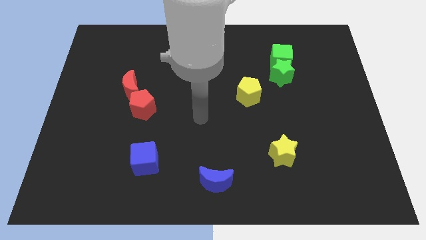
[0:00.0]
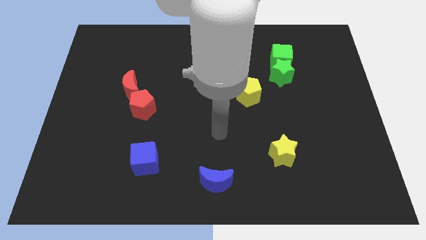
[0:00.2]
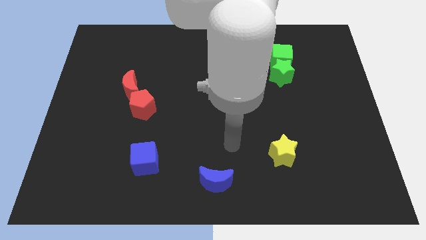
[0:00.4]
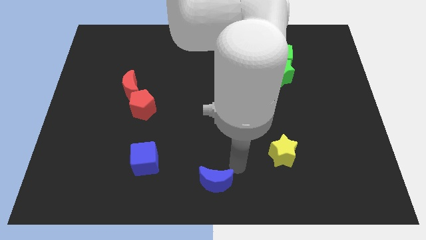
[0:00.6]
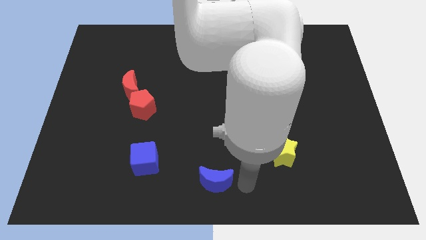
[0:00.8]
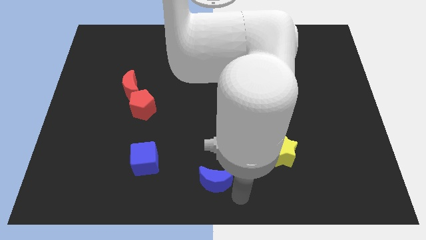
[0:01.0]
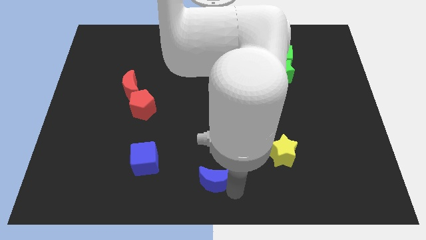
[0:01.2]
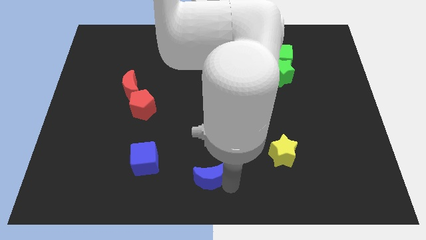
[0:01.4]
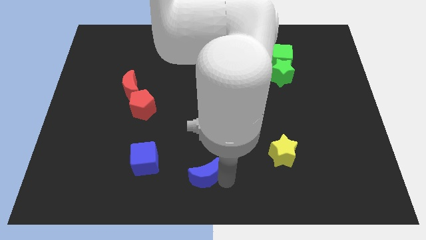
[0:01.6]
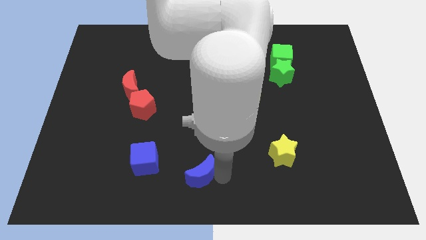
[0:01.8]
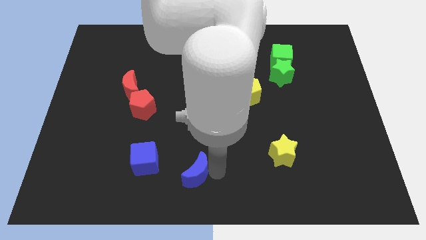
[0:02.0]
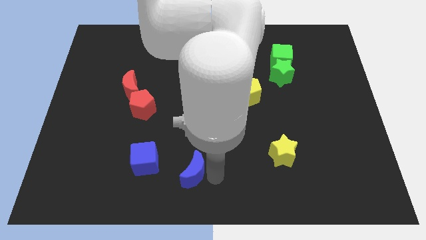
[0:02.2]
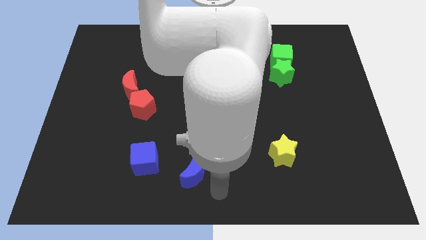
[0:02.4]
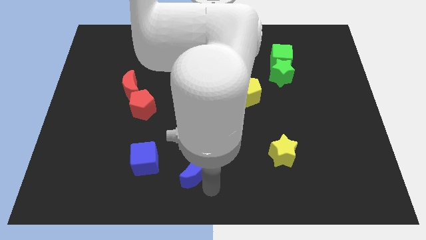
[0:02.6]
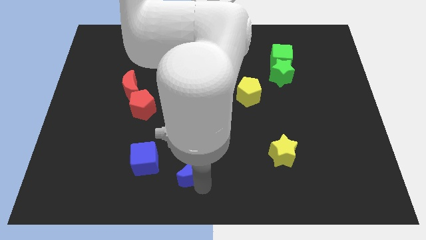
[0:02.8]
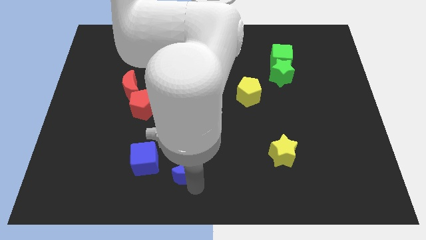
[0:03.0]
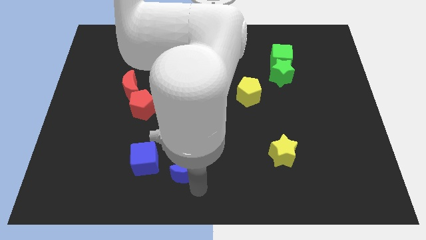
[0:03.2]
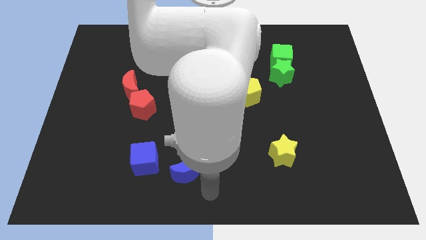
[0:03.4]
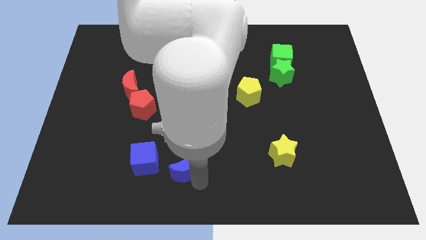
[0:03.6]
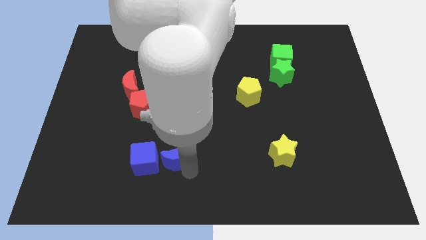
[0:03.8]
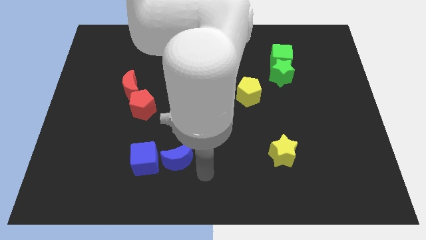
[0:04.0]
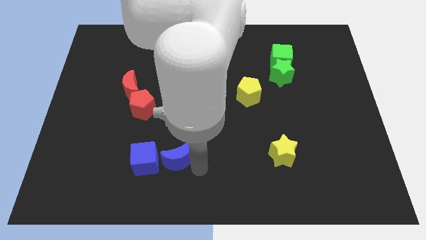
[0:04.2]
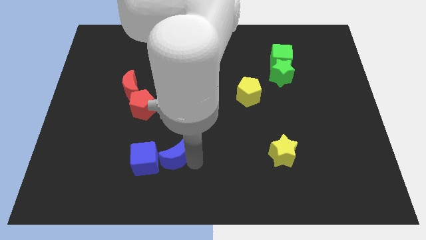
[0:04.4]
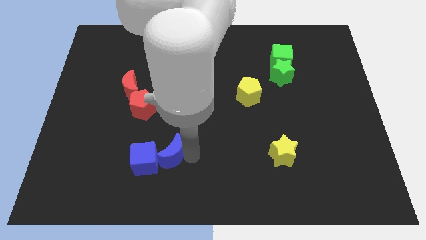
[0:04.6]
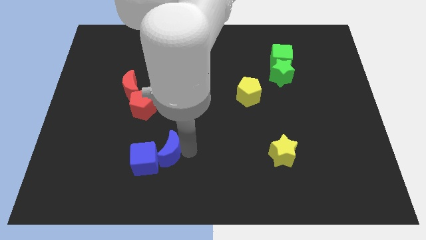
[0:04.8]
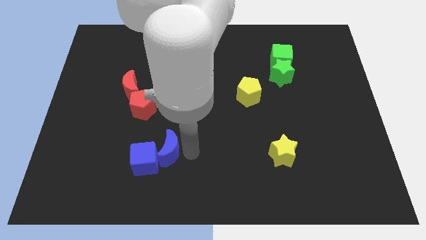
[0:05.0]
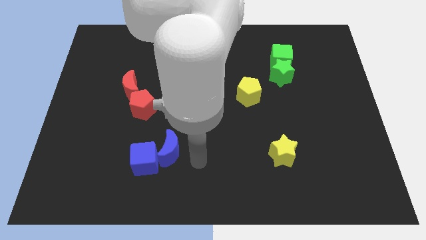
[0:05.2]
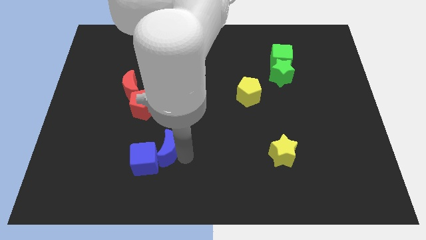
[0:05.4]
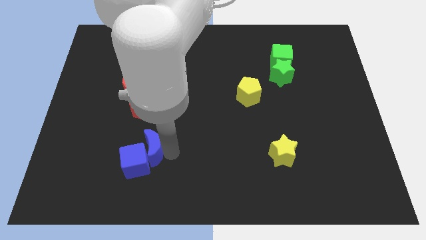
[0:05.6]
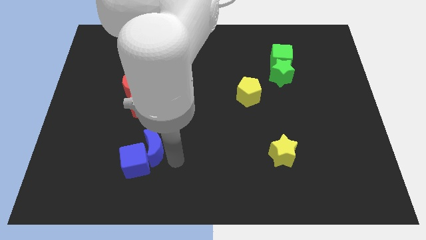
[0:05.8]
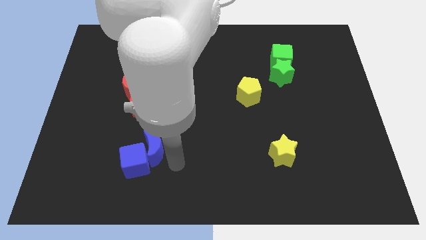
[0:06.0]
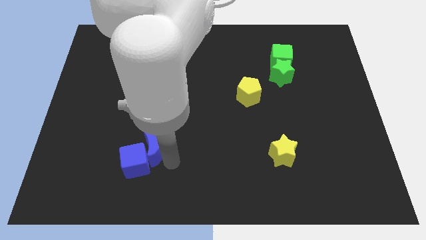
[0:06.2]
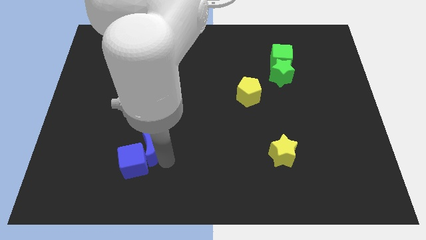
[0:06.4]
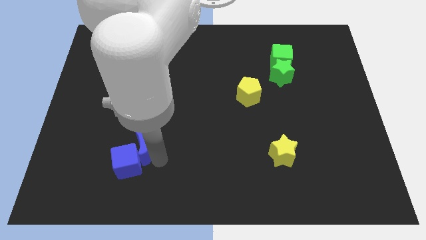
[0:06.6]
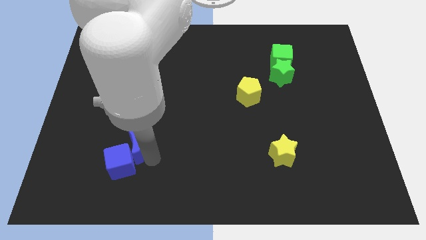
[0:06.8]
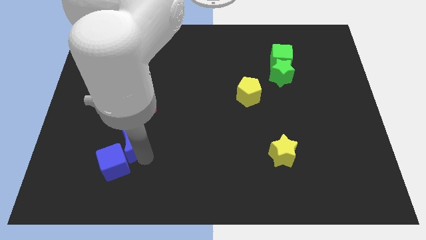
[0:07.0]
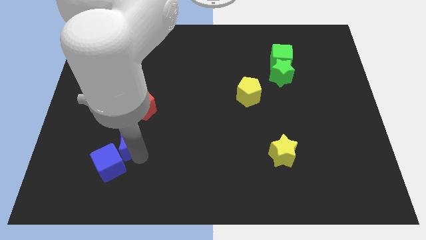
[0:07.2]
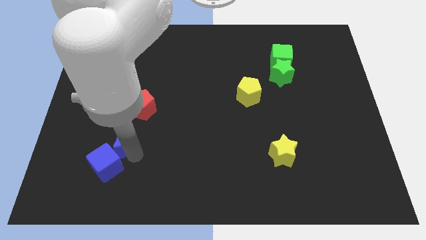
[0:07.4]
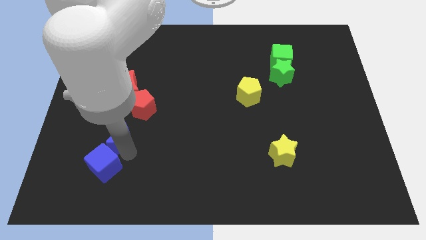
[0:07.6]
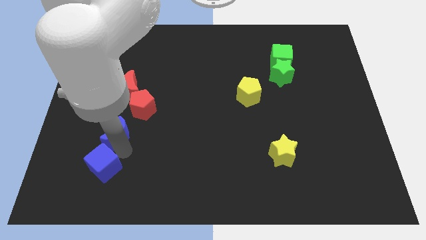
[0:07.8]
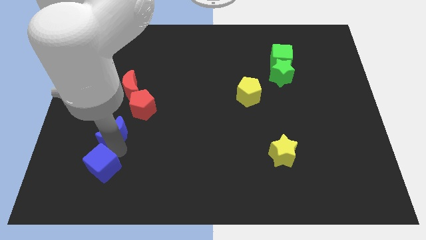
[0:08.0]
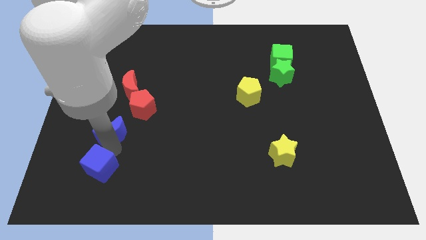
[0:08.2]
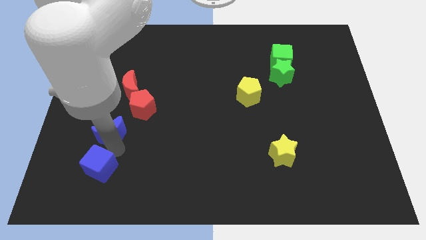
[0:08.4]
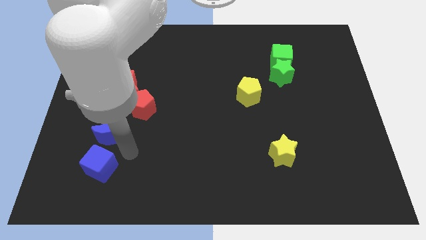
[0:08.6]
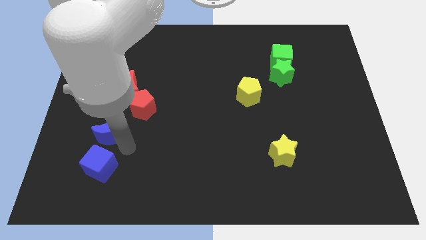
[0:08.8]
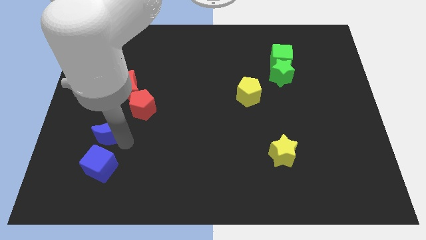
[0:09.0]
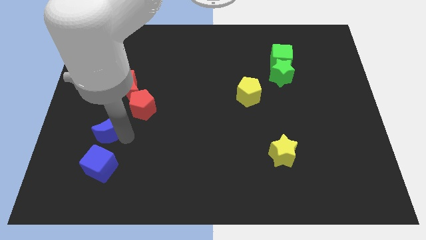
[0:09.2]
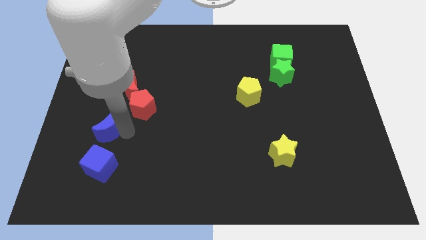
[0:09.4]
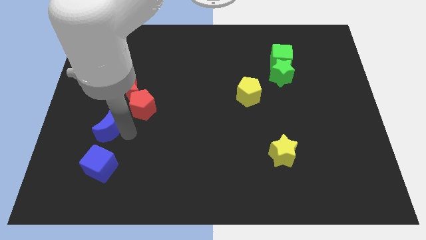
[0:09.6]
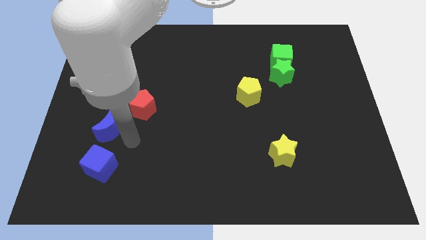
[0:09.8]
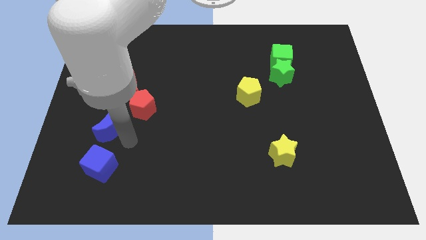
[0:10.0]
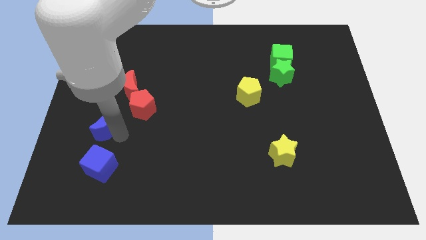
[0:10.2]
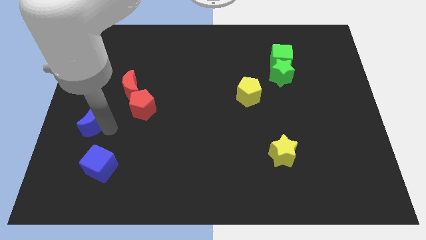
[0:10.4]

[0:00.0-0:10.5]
slide the blue moon to the center left

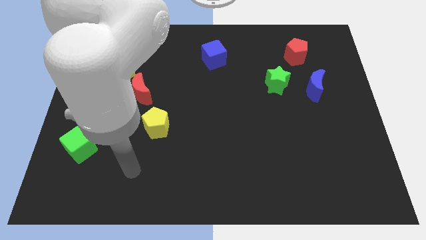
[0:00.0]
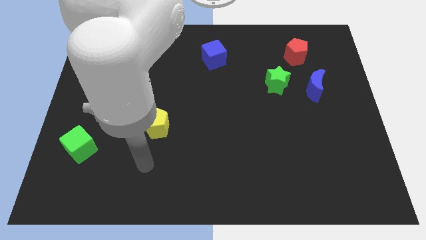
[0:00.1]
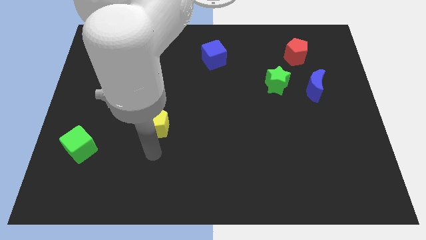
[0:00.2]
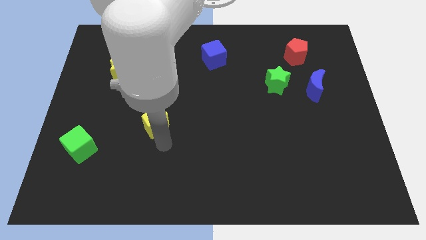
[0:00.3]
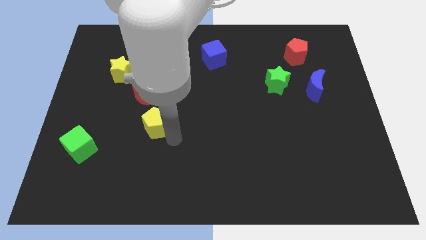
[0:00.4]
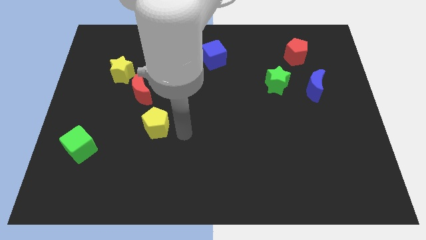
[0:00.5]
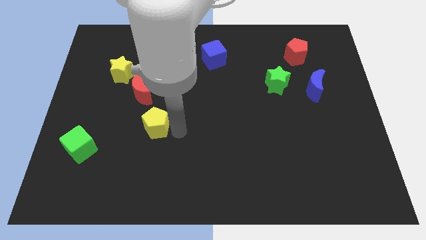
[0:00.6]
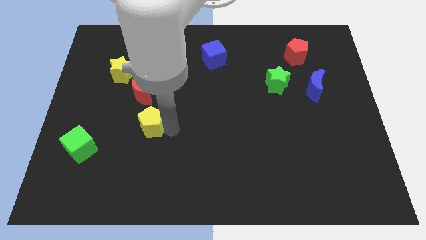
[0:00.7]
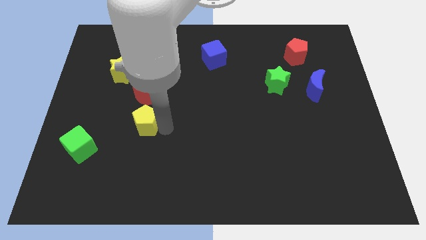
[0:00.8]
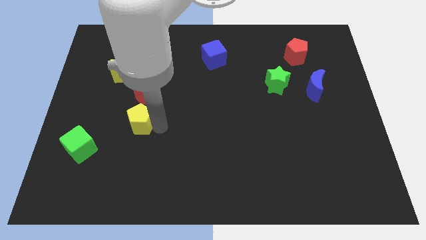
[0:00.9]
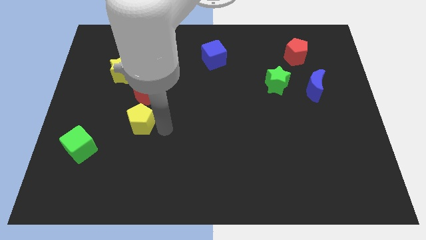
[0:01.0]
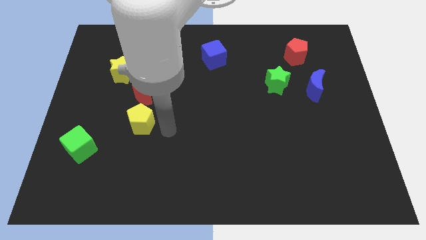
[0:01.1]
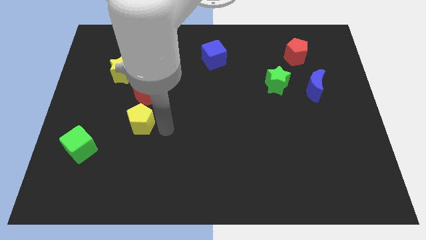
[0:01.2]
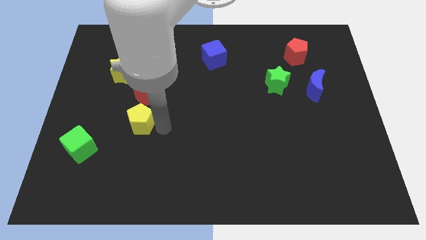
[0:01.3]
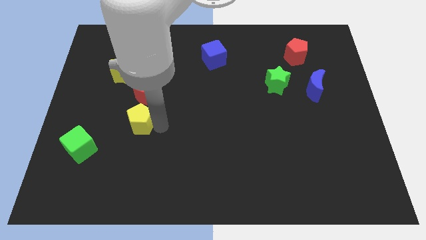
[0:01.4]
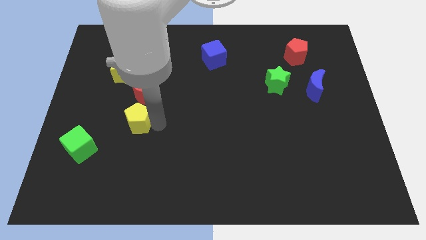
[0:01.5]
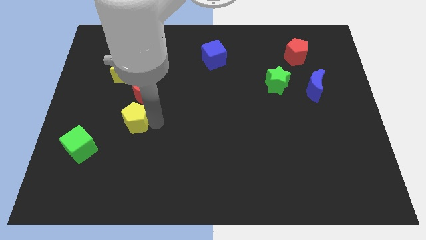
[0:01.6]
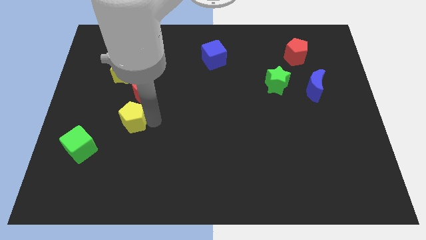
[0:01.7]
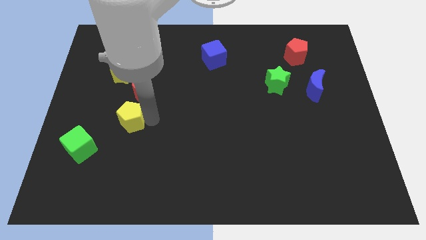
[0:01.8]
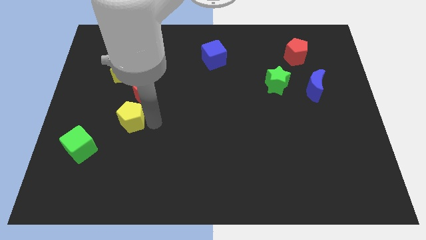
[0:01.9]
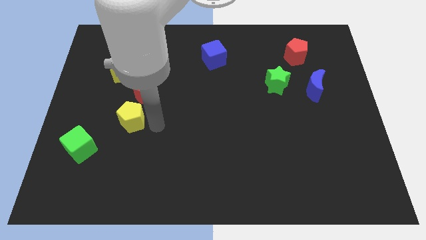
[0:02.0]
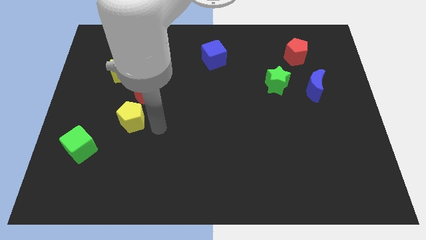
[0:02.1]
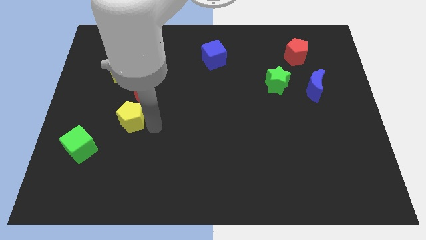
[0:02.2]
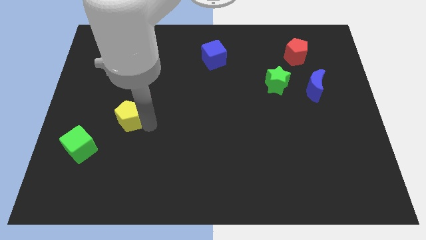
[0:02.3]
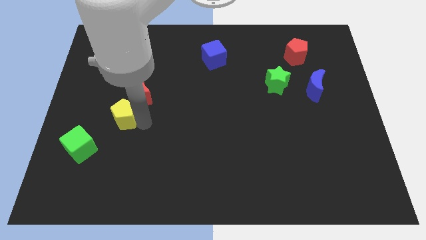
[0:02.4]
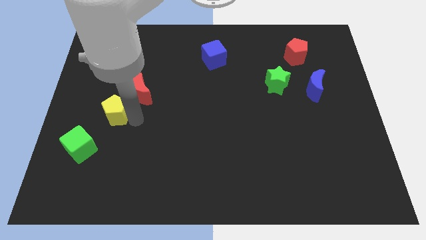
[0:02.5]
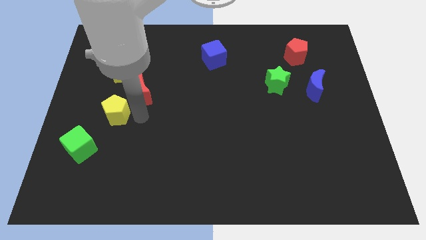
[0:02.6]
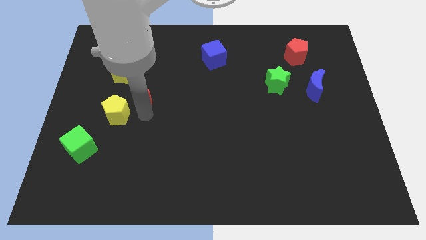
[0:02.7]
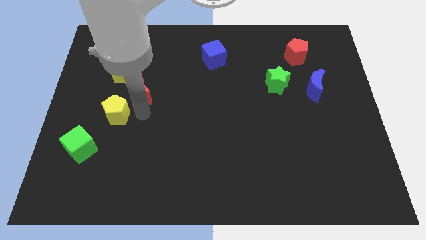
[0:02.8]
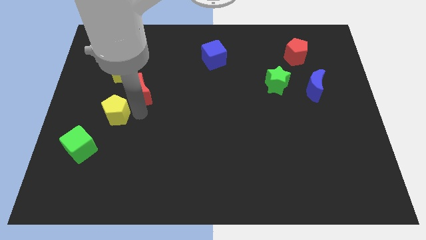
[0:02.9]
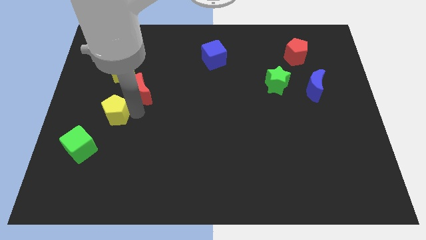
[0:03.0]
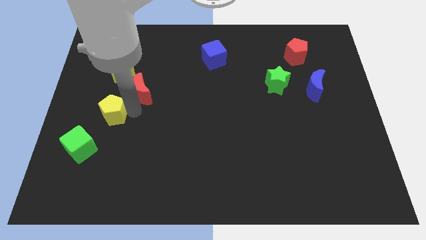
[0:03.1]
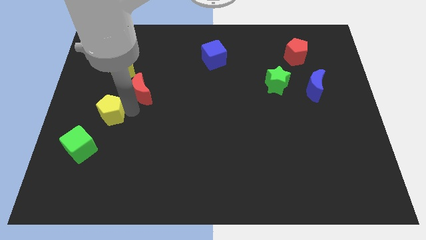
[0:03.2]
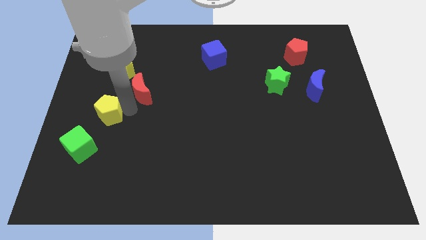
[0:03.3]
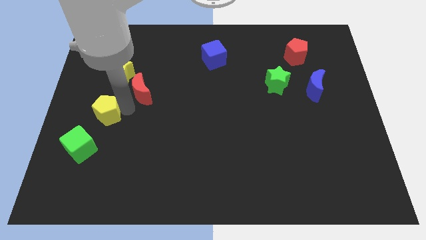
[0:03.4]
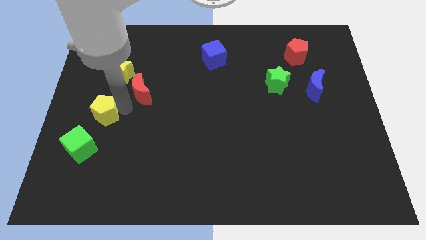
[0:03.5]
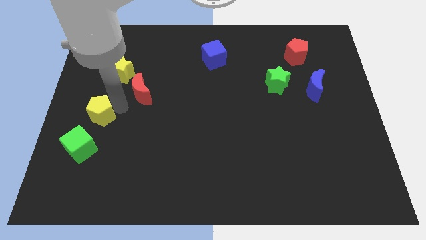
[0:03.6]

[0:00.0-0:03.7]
slide the yellow pentagon to the center left
